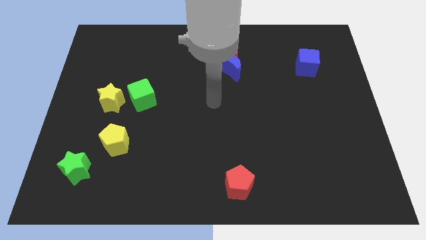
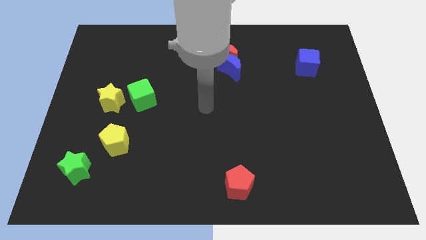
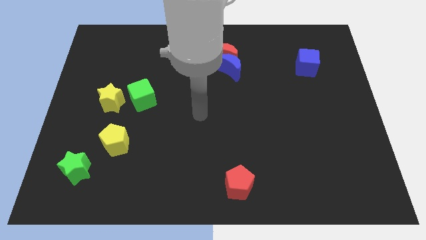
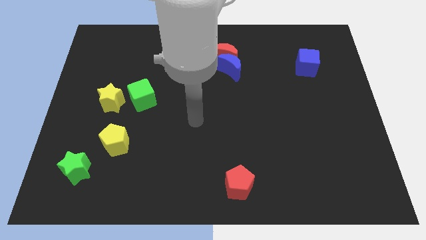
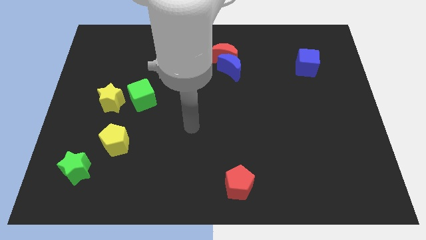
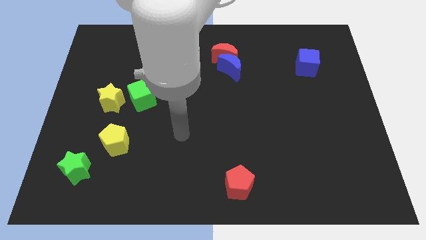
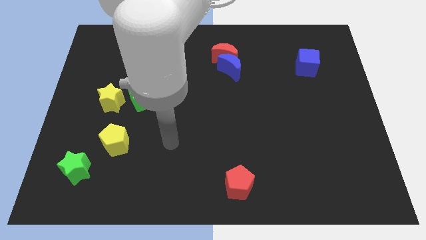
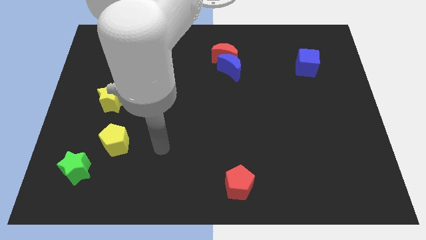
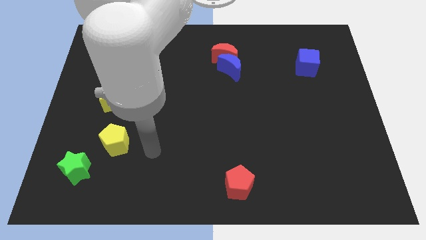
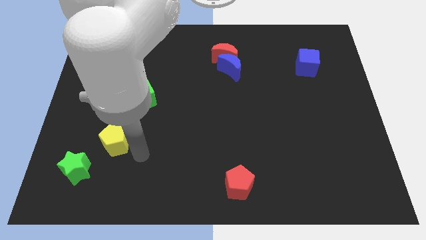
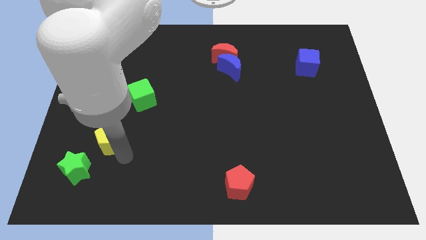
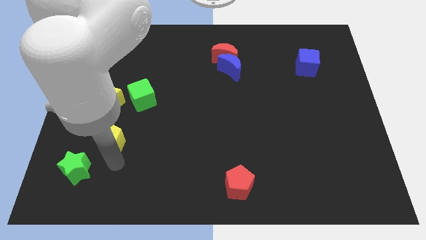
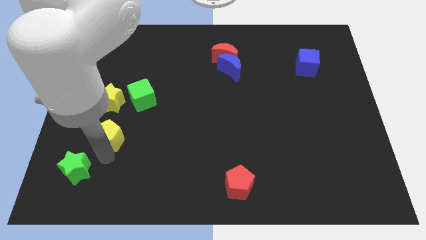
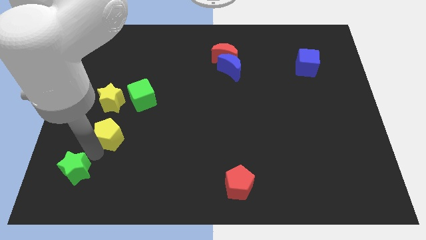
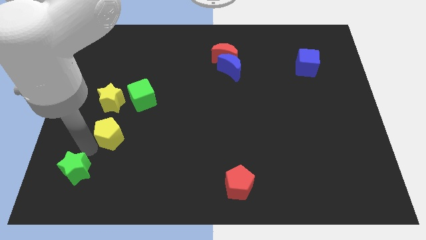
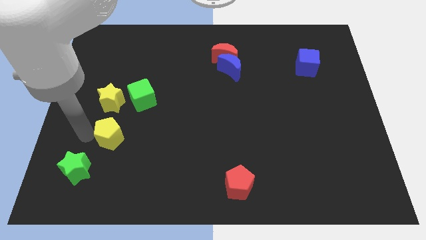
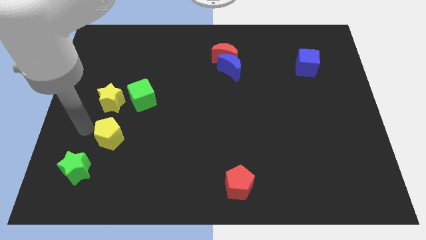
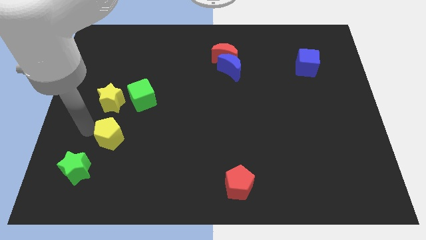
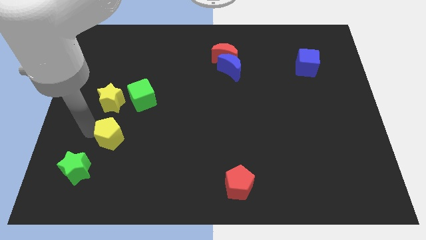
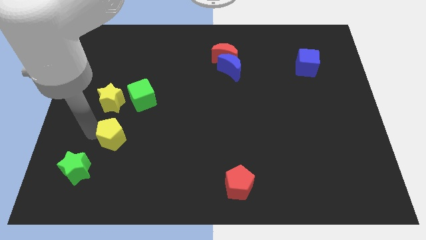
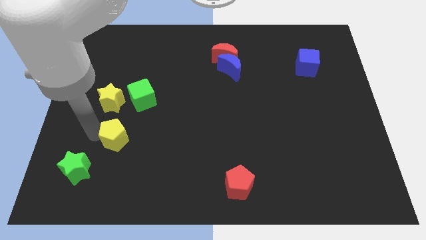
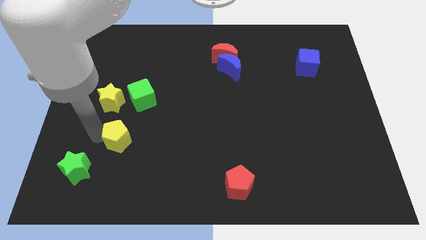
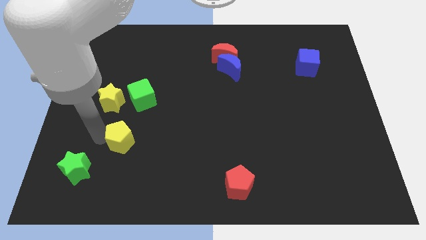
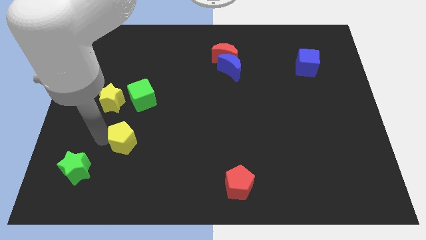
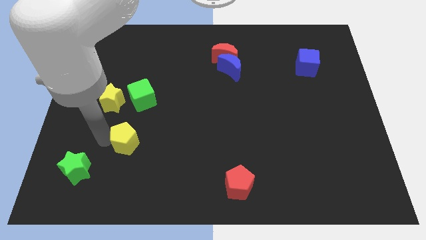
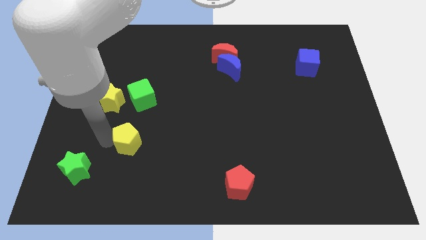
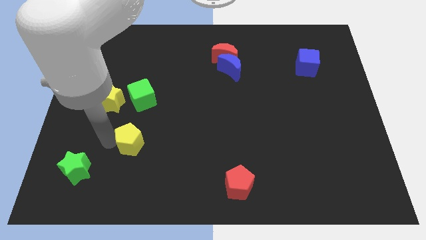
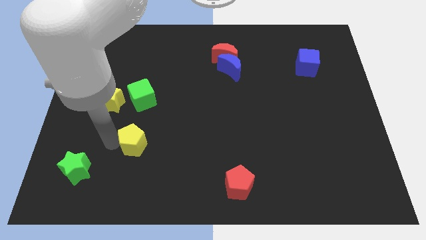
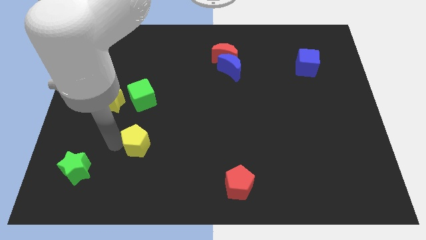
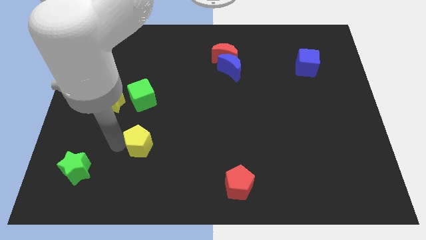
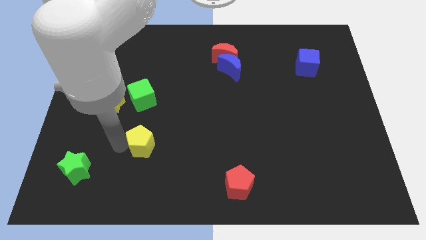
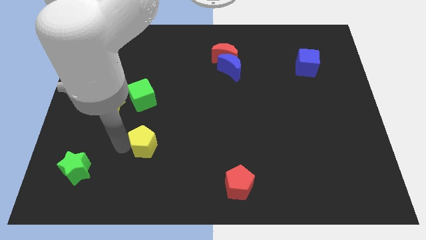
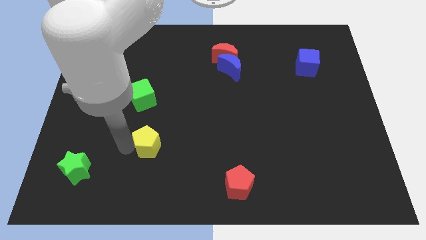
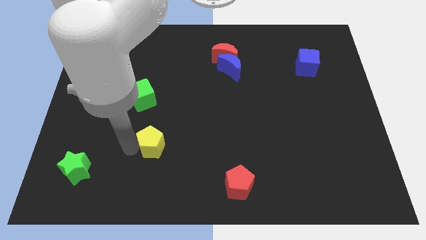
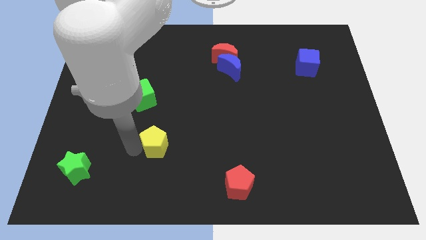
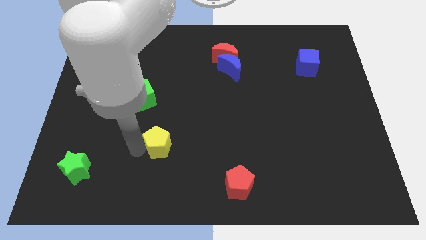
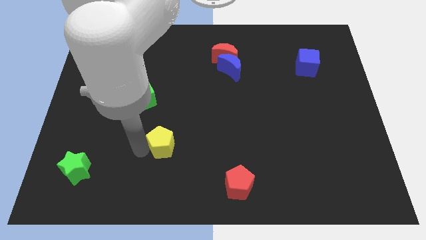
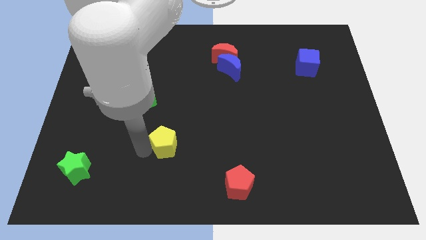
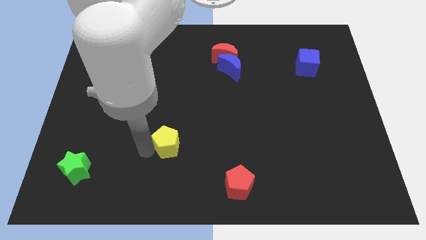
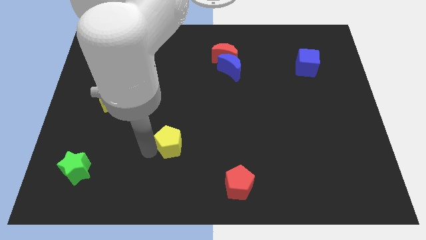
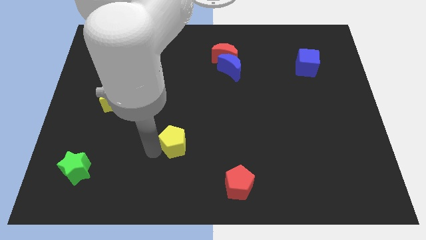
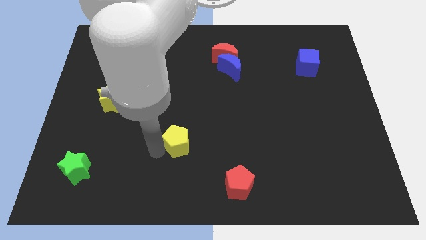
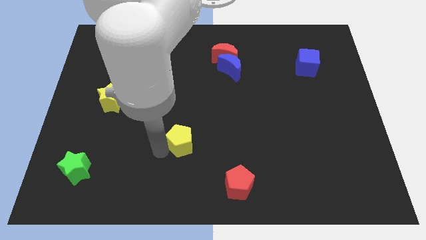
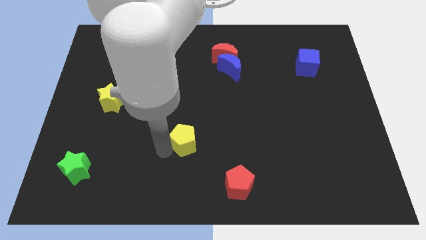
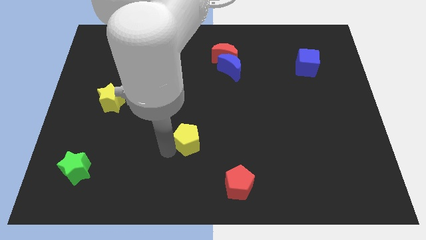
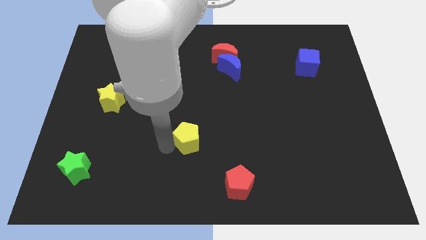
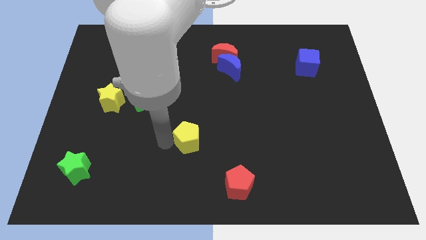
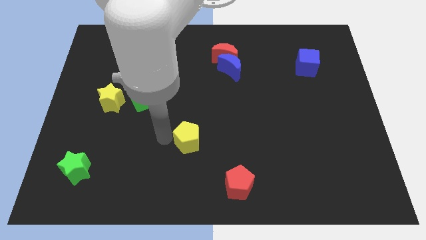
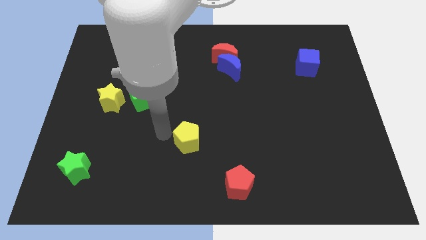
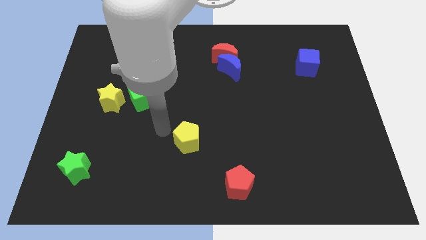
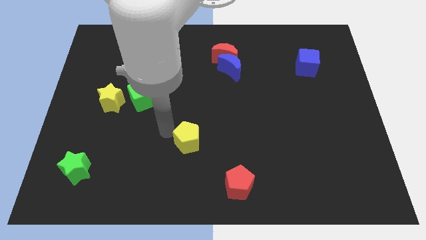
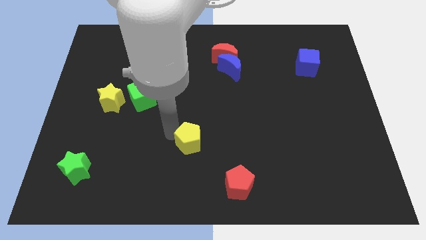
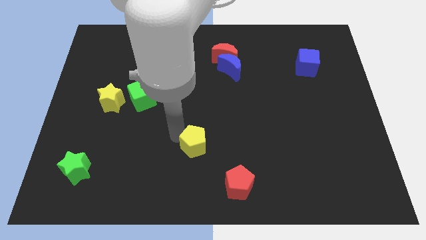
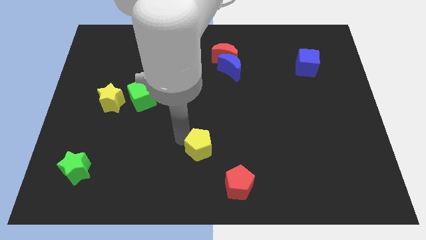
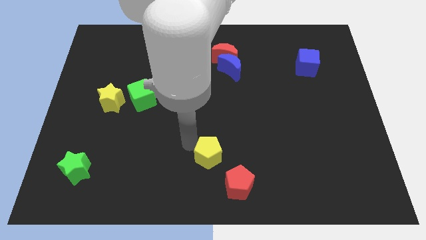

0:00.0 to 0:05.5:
move the yellow pentagon to the right

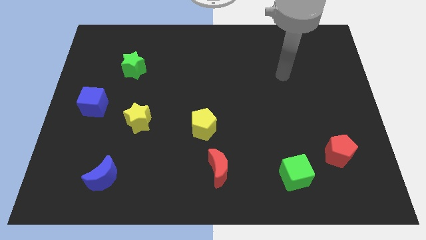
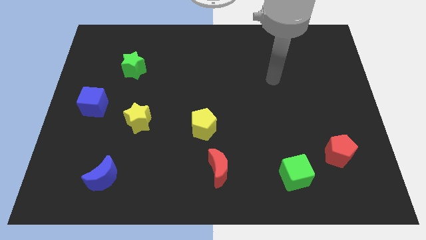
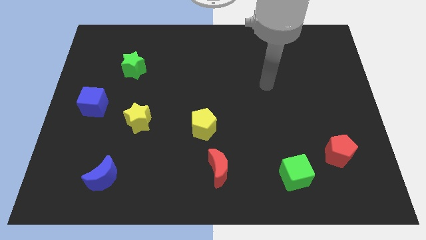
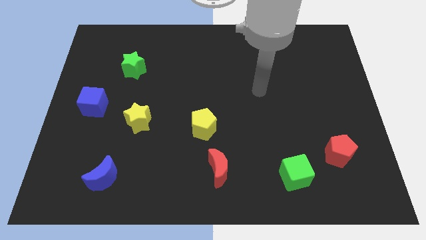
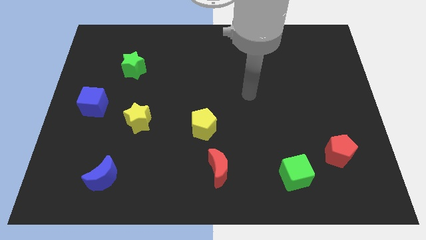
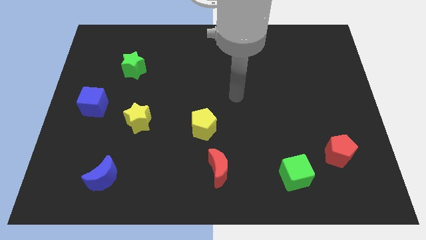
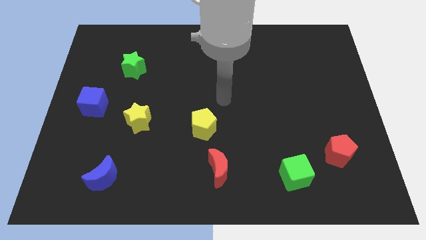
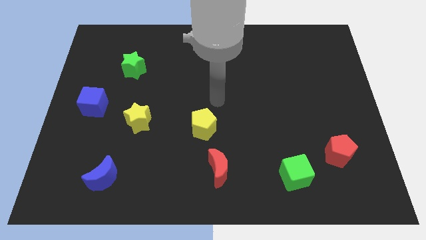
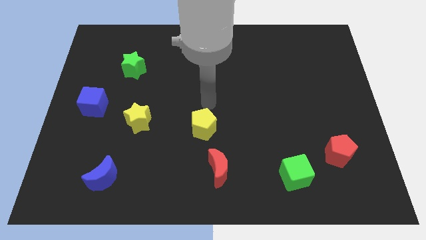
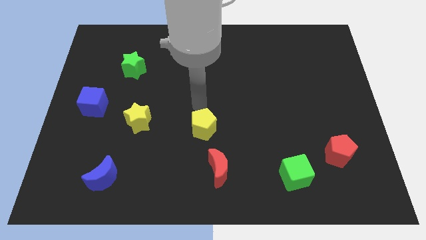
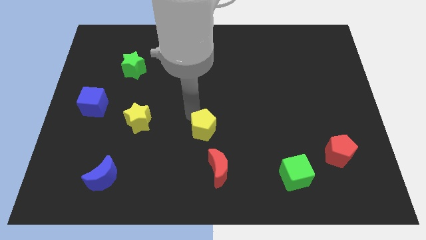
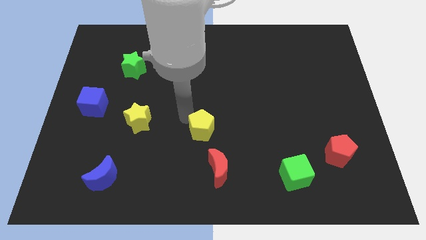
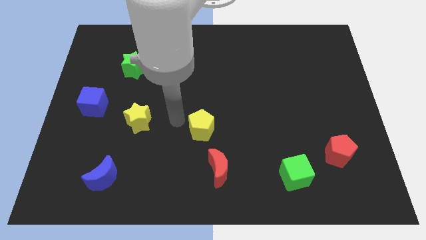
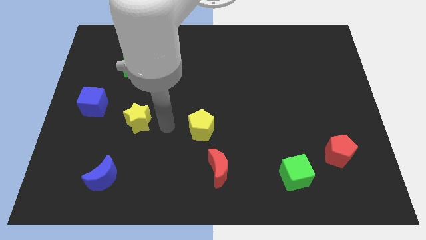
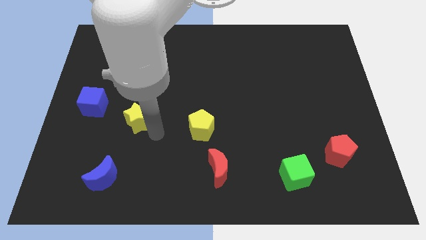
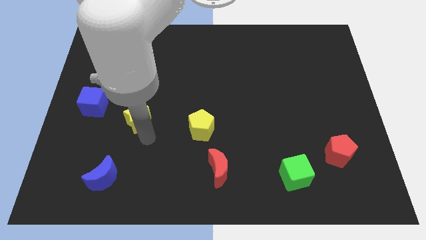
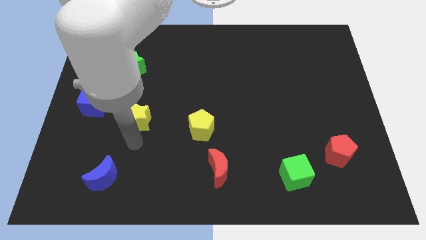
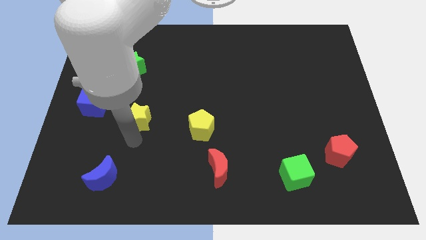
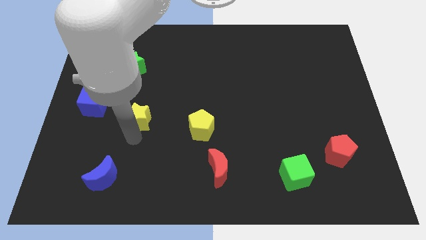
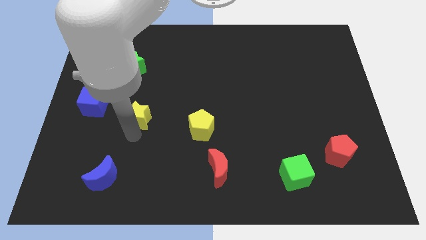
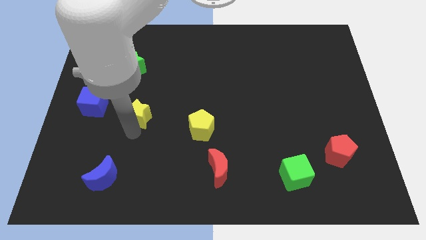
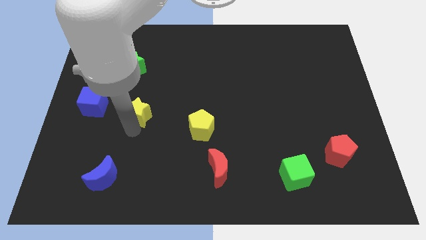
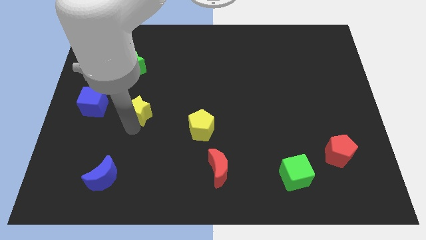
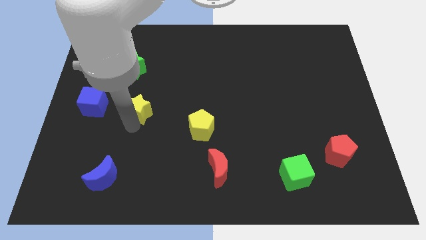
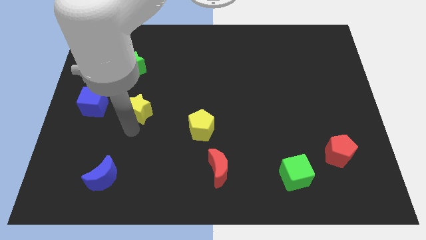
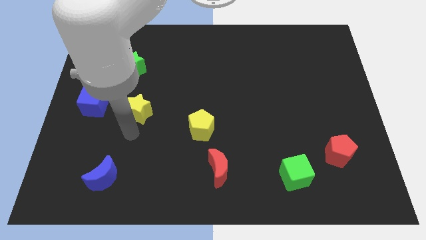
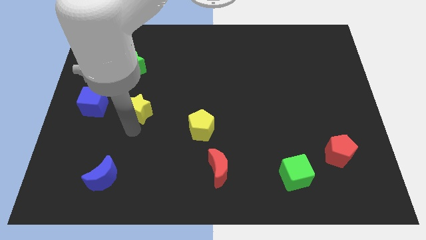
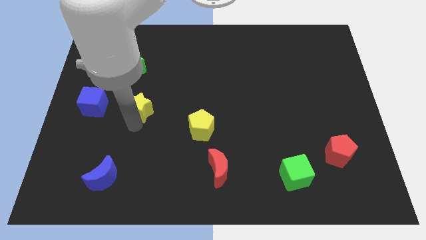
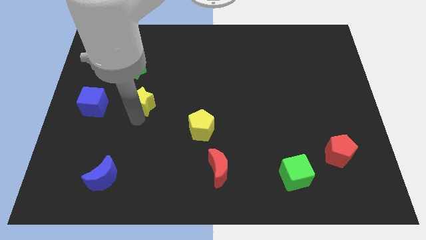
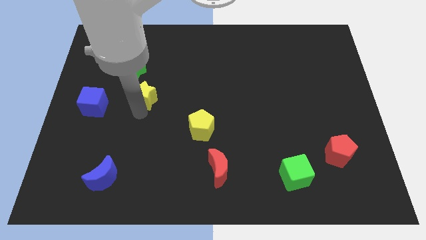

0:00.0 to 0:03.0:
move the yellow star a little upwards

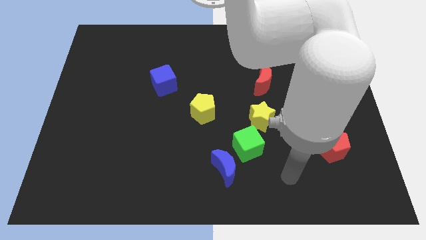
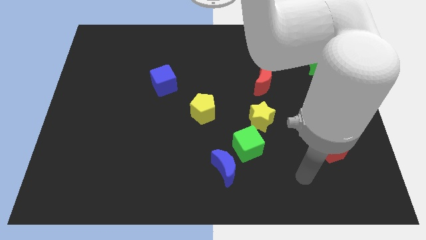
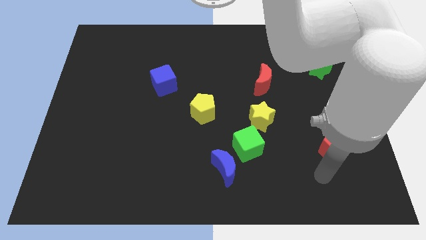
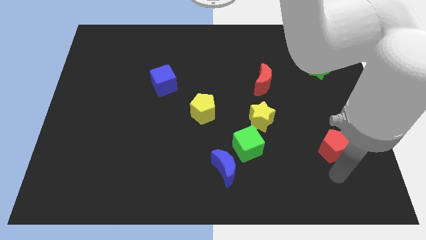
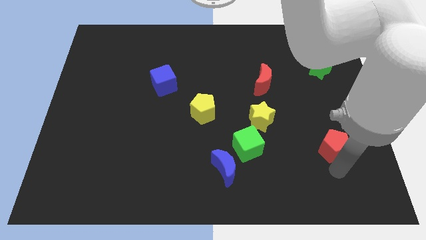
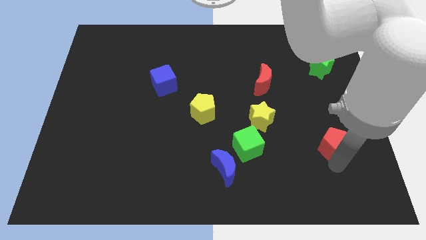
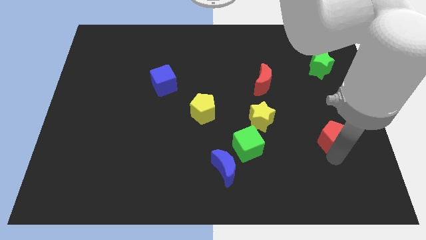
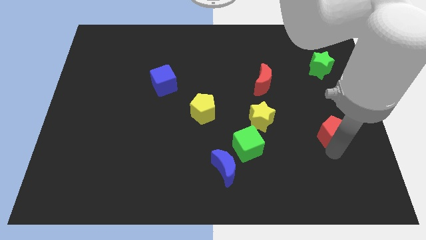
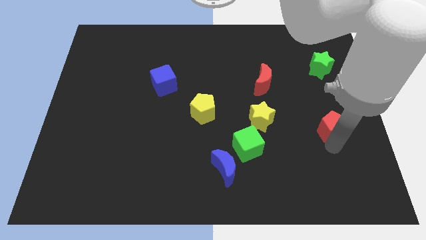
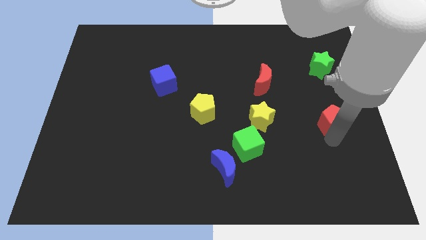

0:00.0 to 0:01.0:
slide the red pentagon slightly upwards
